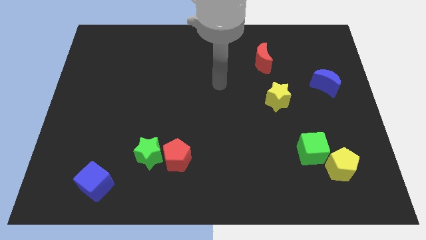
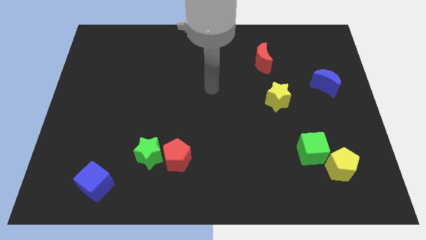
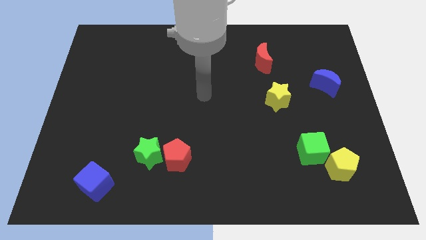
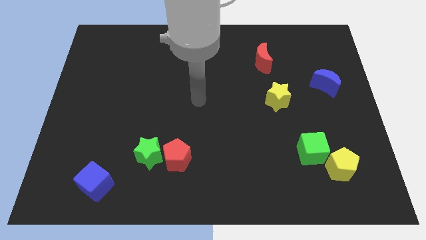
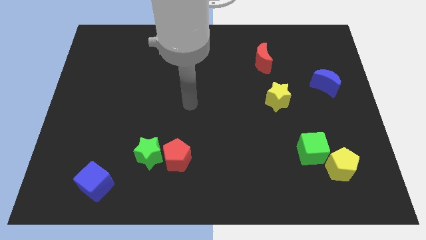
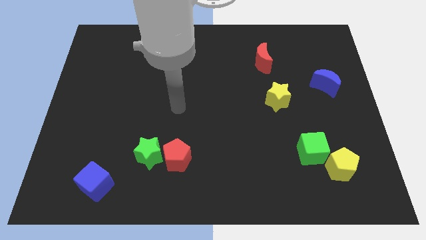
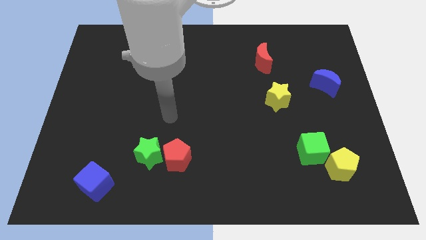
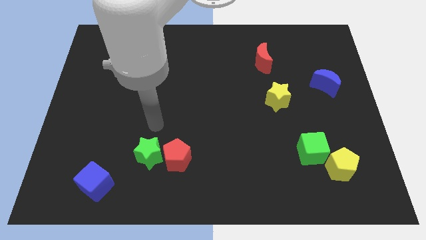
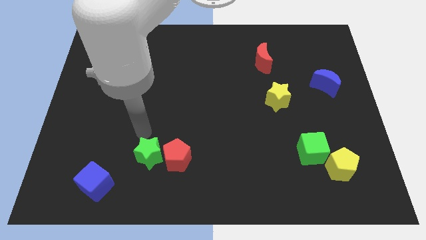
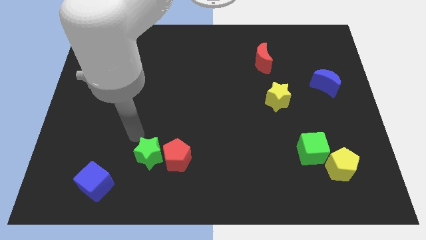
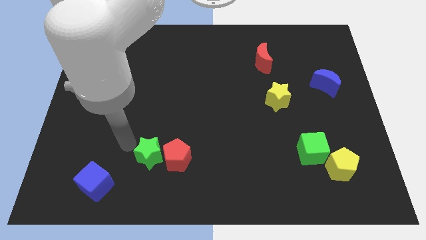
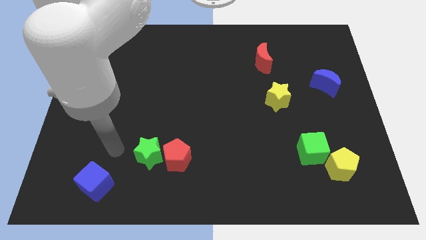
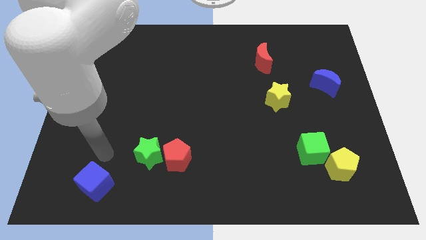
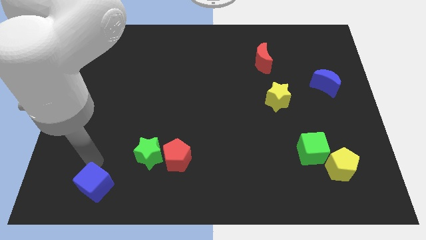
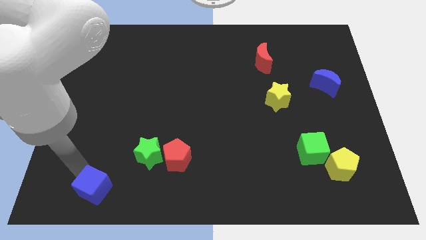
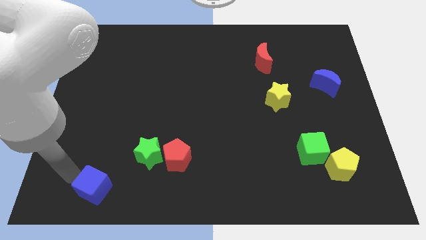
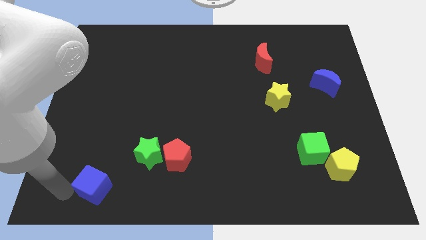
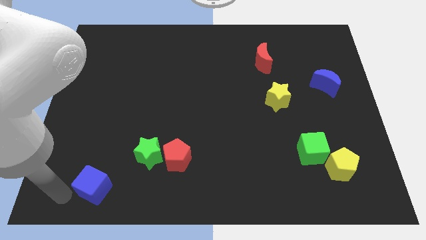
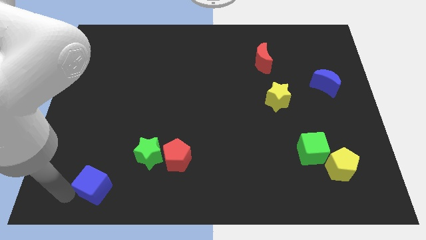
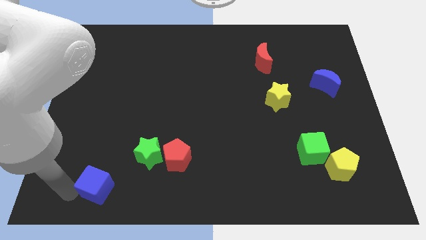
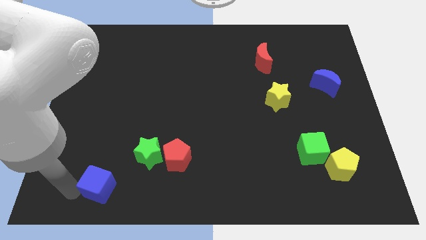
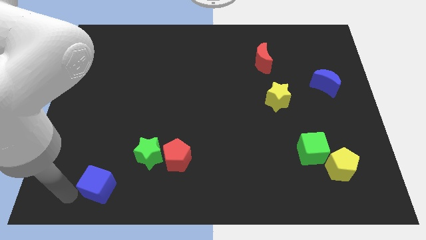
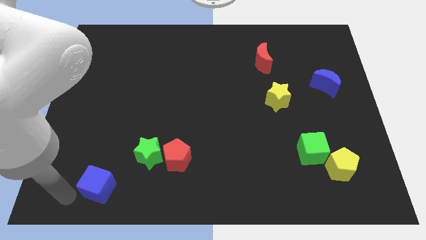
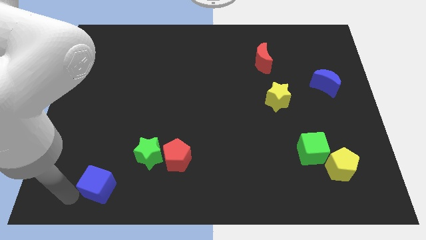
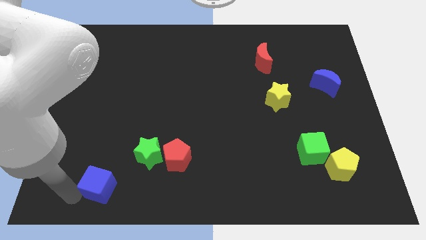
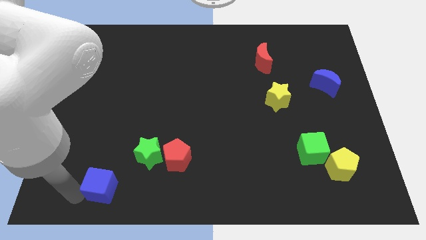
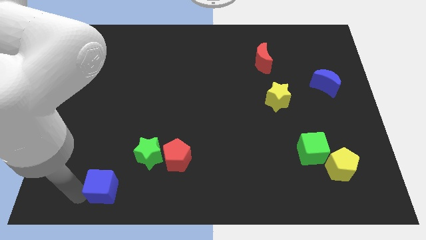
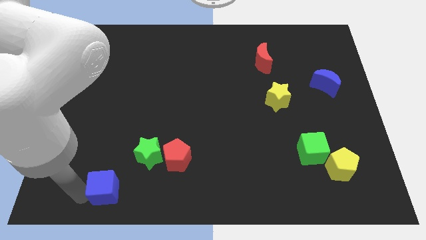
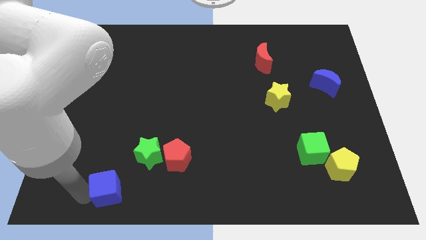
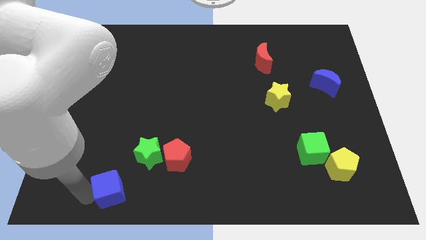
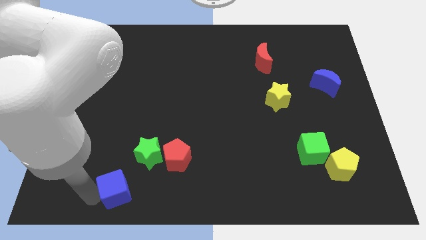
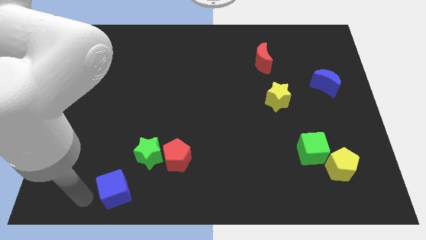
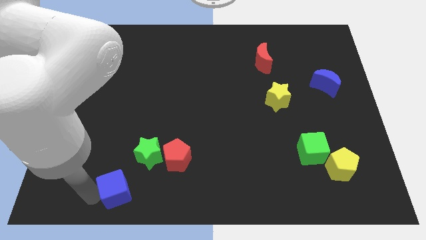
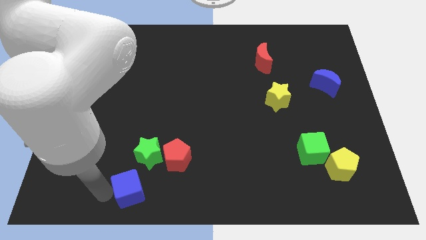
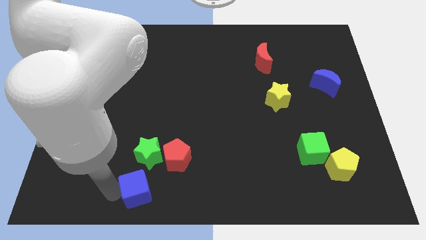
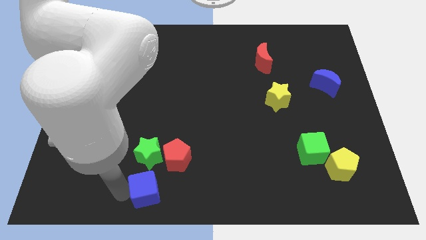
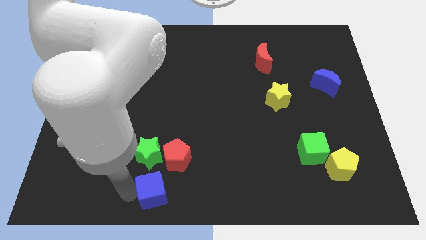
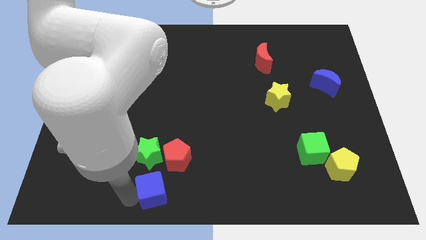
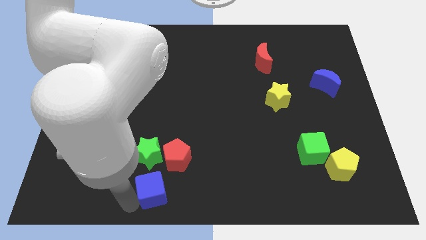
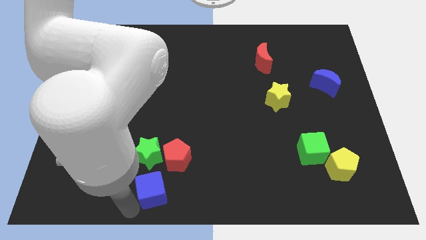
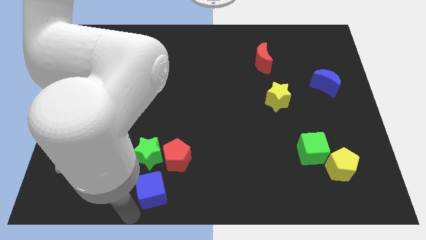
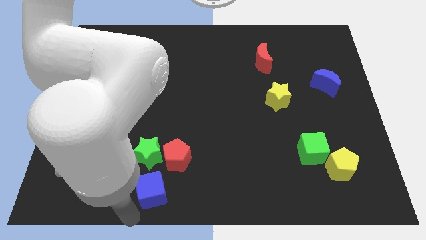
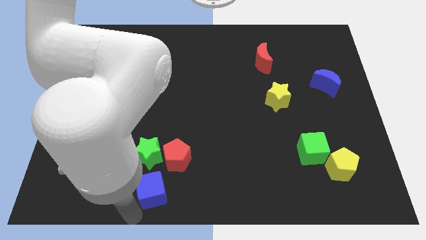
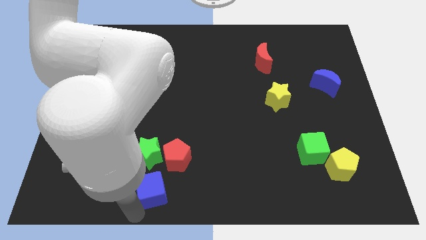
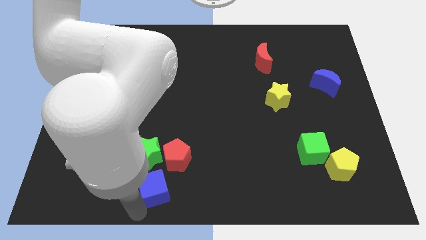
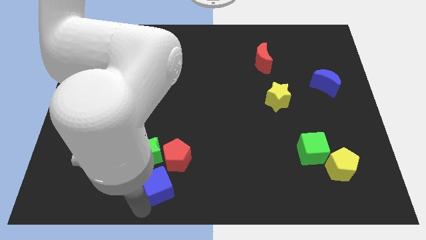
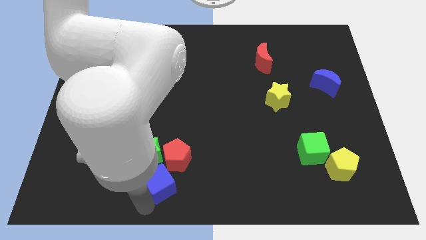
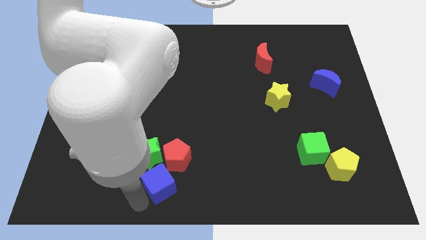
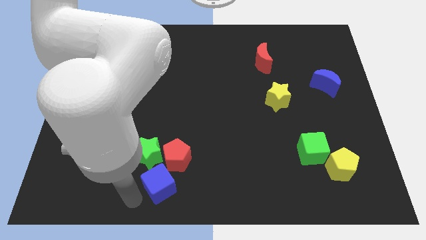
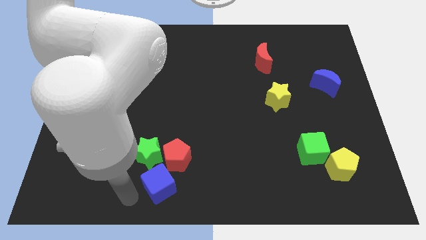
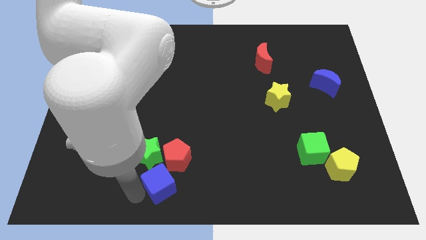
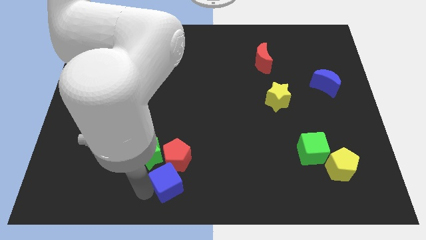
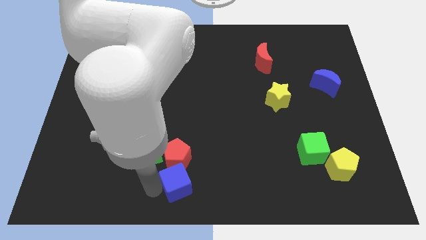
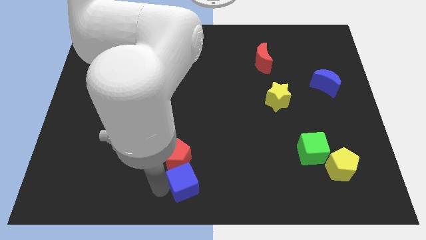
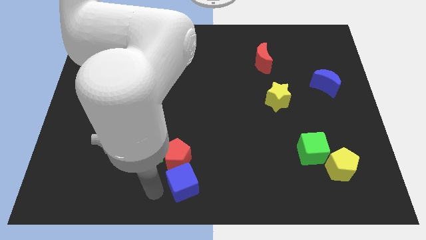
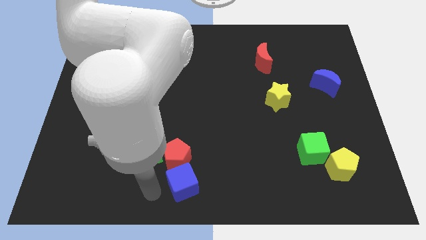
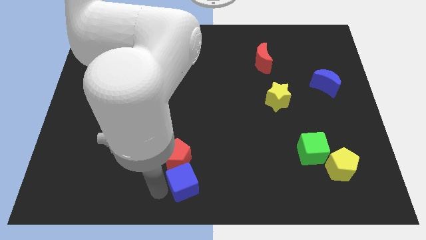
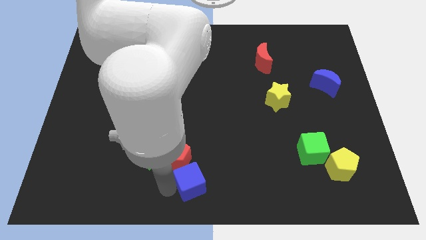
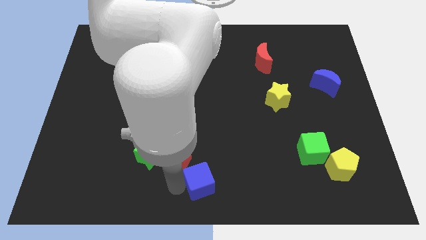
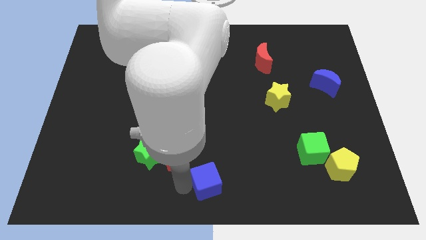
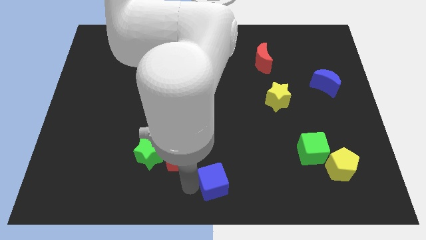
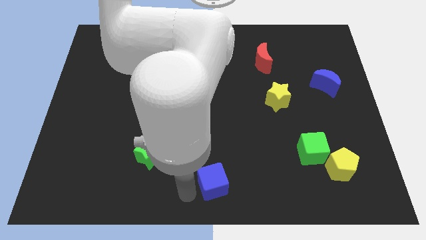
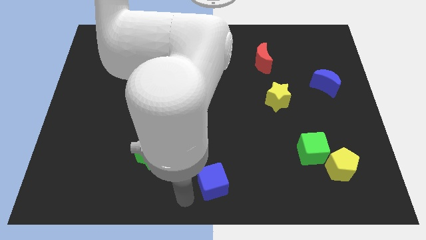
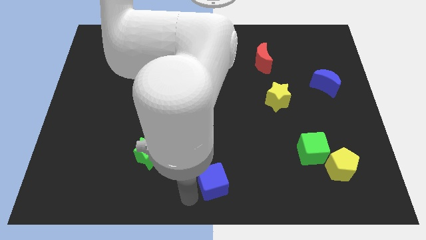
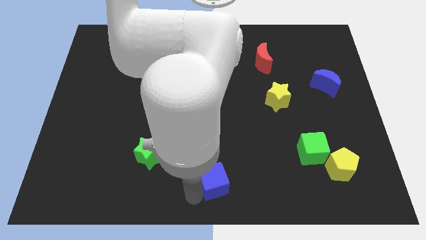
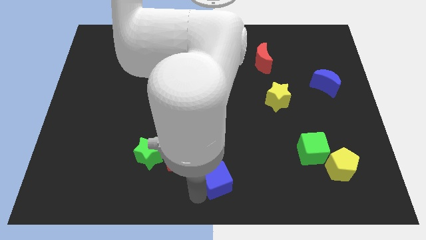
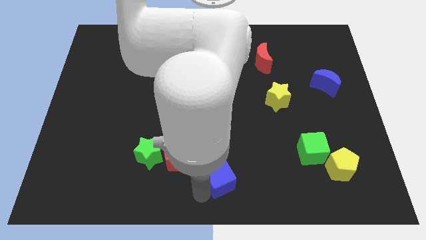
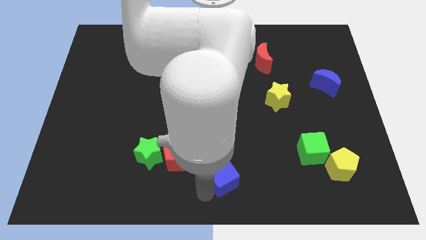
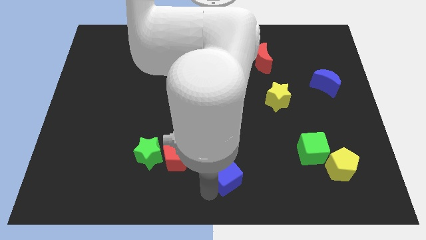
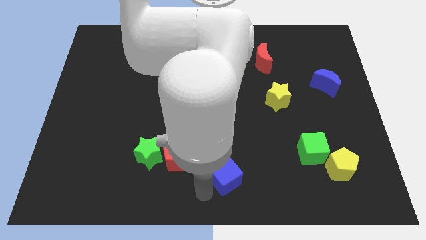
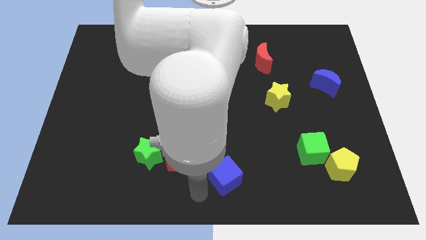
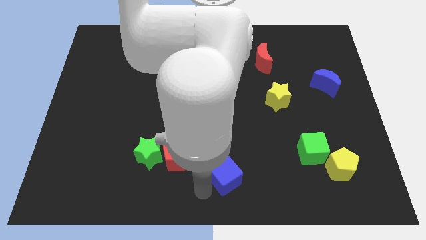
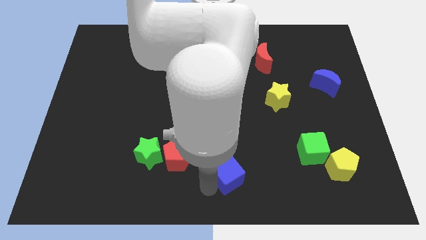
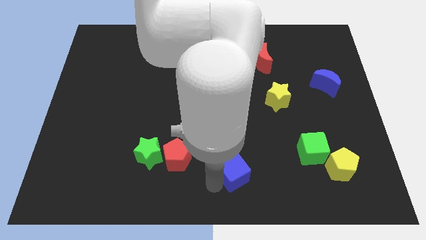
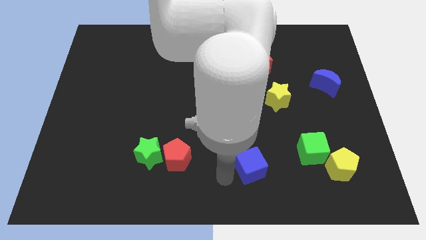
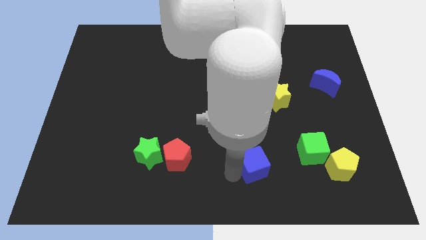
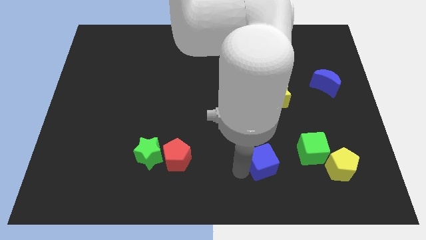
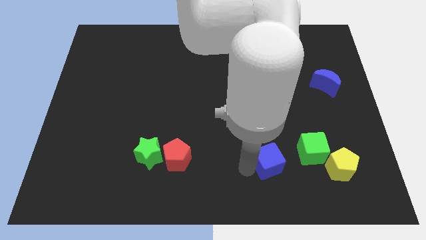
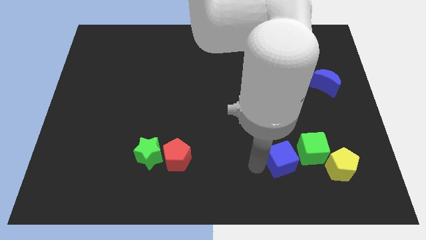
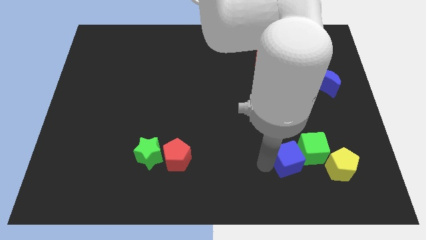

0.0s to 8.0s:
push the blue cube to the green cube

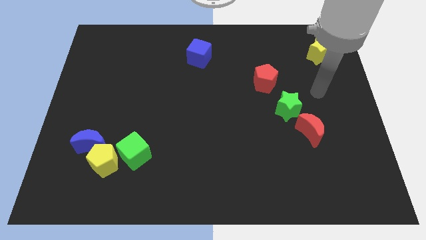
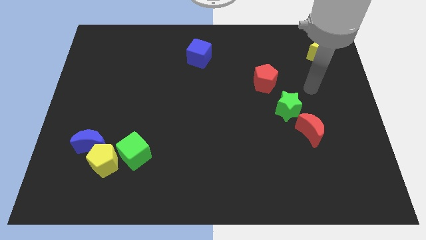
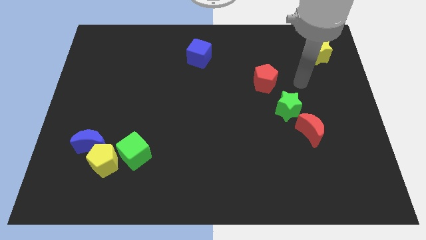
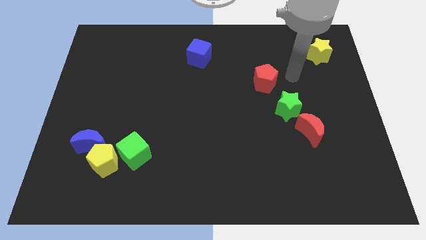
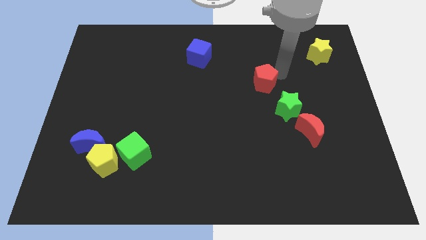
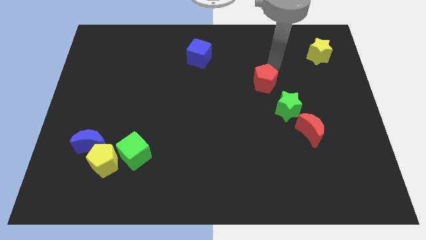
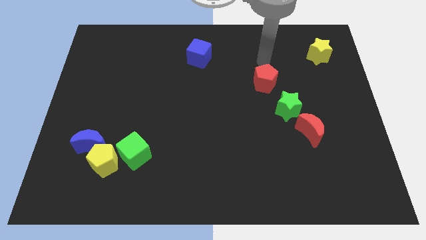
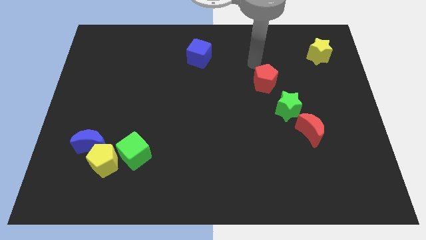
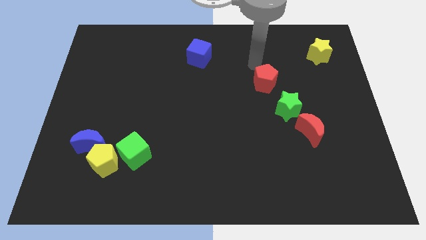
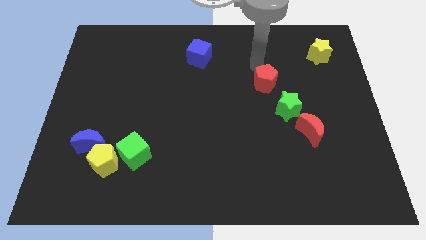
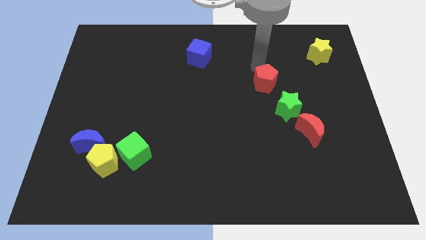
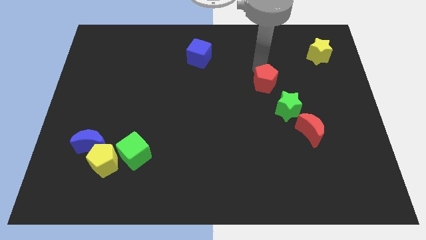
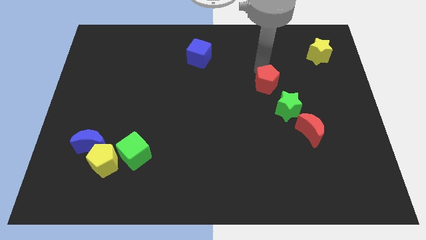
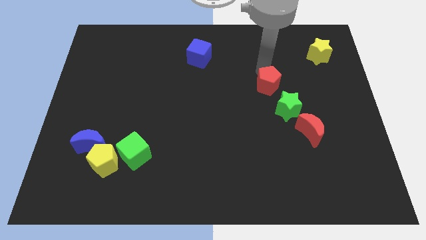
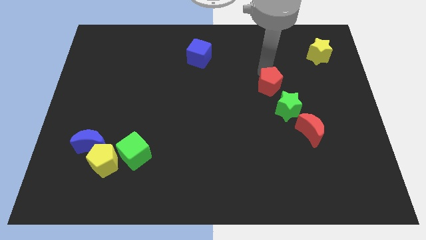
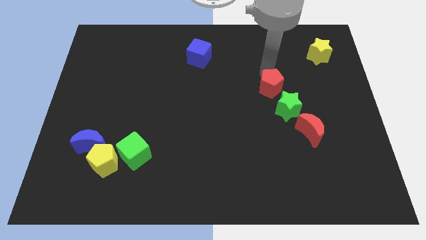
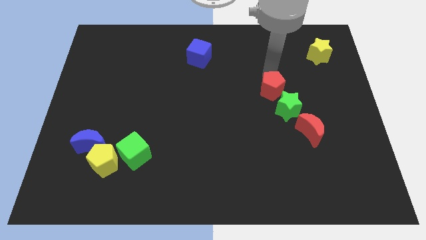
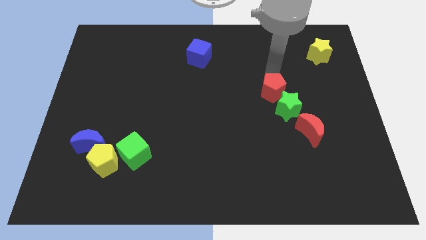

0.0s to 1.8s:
push the red pentagon to the green star
